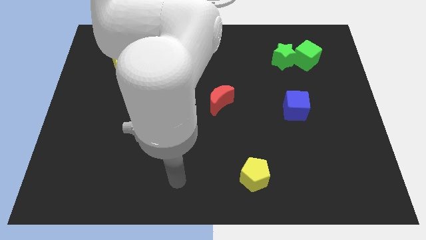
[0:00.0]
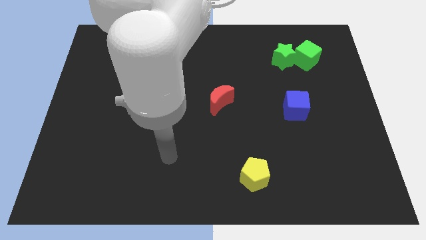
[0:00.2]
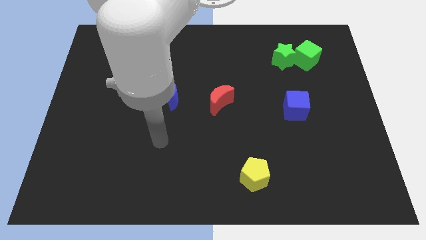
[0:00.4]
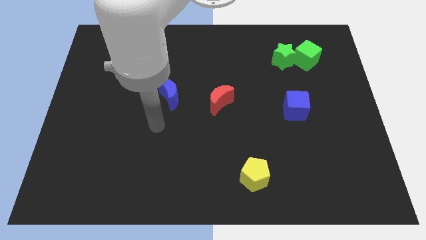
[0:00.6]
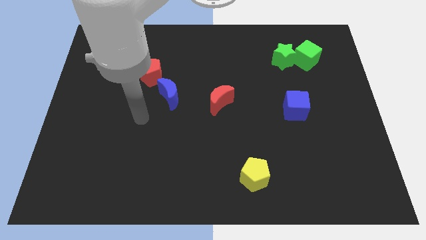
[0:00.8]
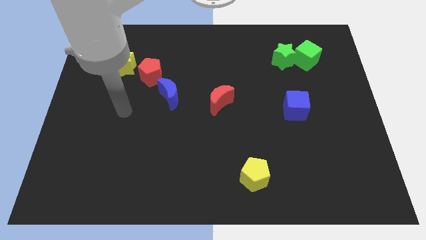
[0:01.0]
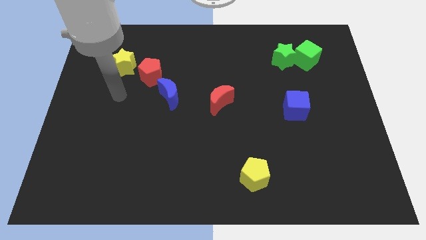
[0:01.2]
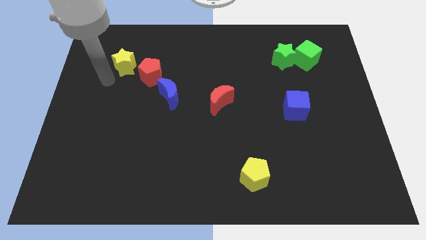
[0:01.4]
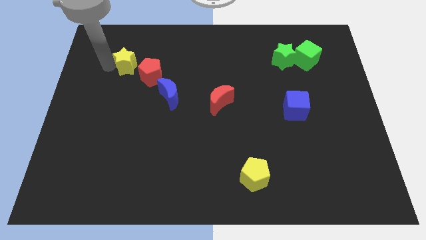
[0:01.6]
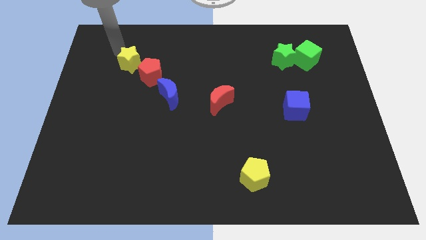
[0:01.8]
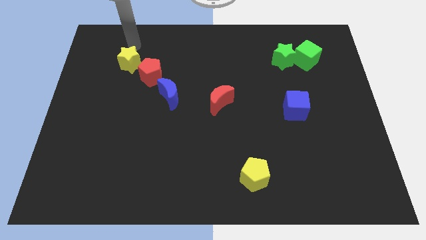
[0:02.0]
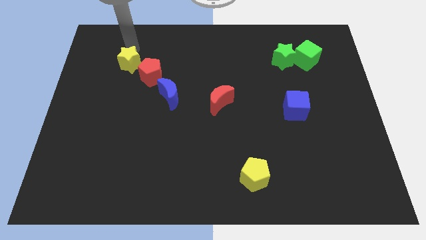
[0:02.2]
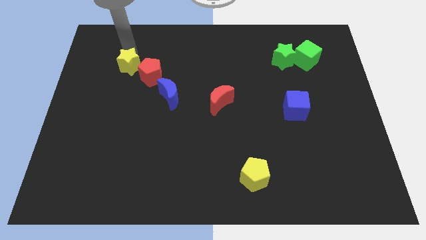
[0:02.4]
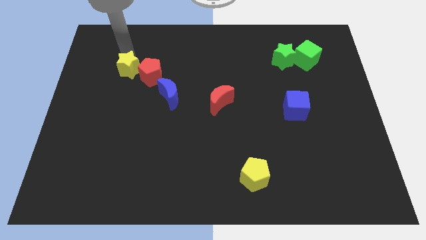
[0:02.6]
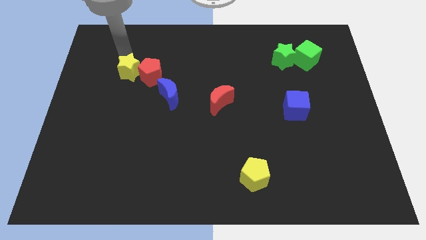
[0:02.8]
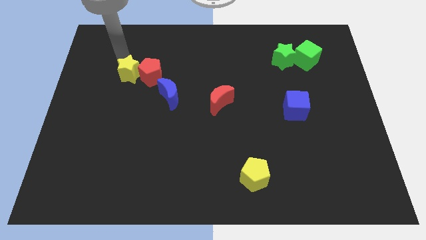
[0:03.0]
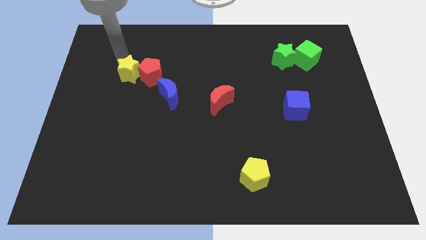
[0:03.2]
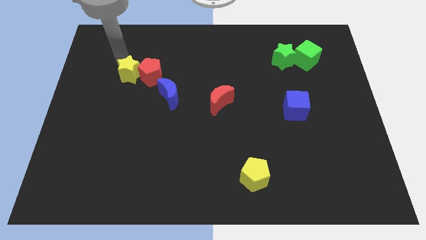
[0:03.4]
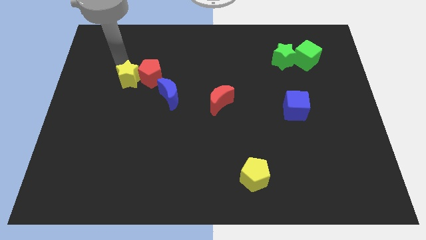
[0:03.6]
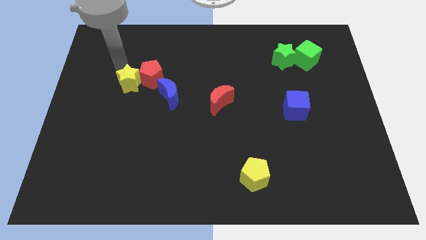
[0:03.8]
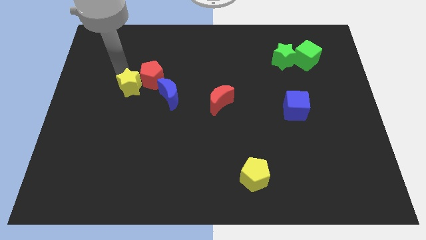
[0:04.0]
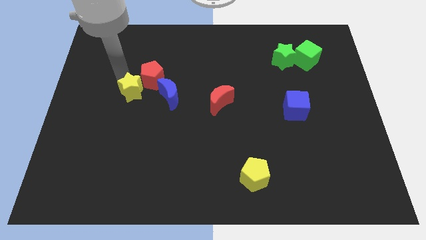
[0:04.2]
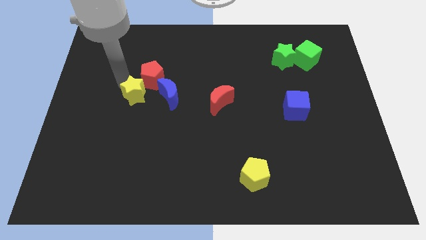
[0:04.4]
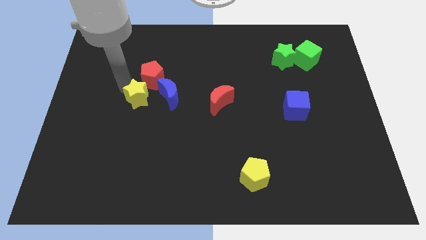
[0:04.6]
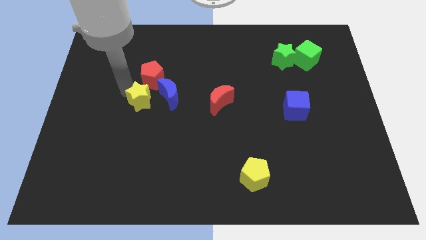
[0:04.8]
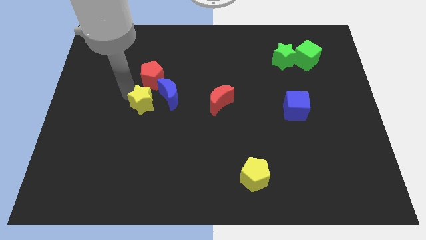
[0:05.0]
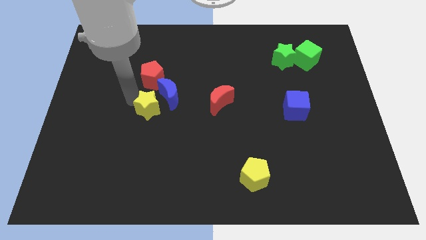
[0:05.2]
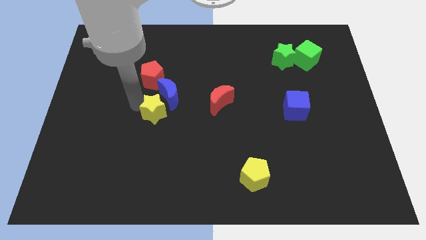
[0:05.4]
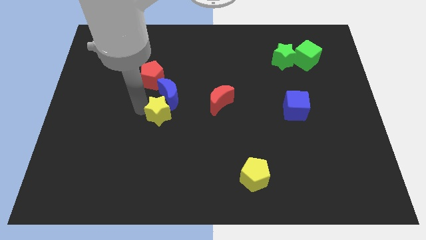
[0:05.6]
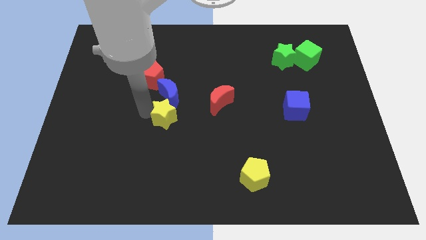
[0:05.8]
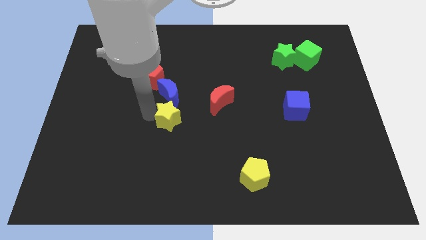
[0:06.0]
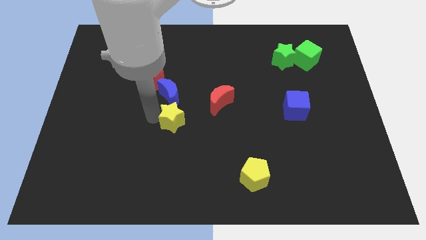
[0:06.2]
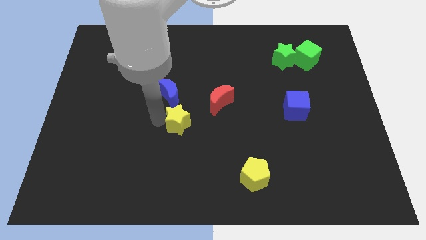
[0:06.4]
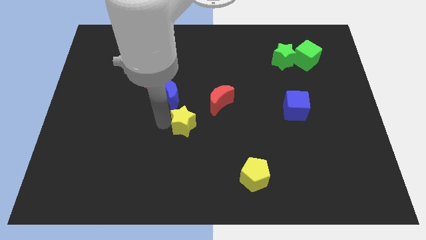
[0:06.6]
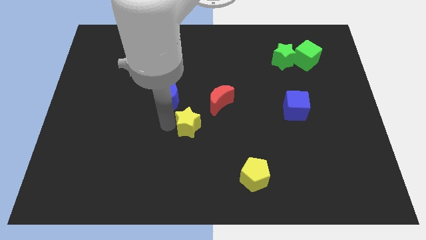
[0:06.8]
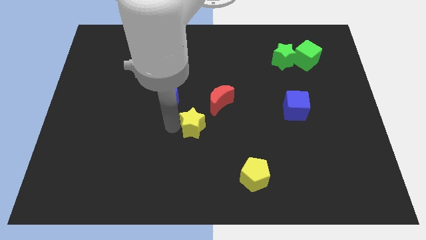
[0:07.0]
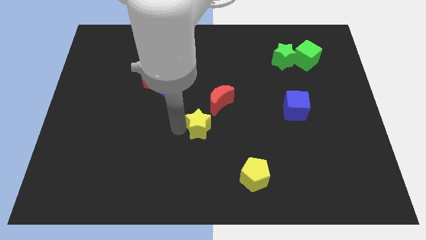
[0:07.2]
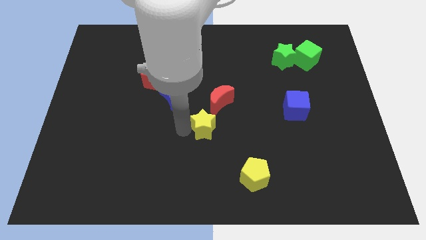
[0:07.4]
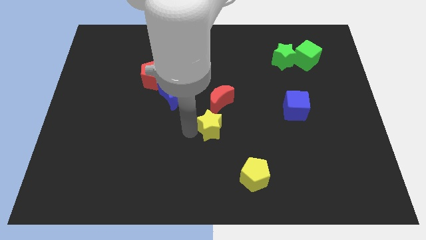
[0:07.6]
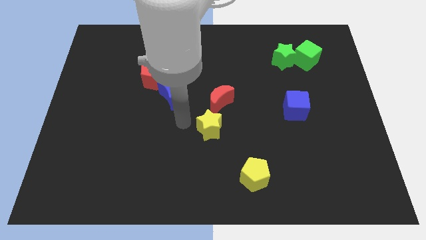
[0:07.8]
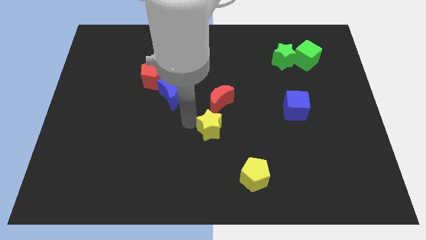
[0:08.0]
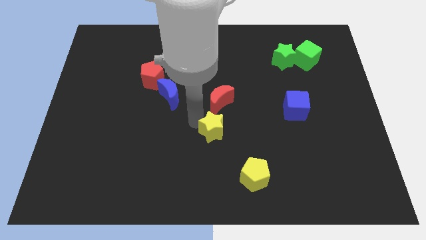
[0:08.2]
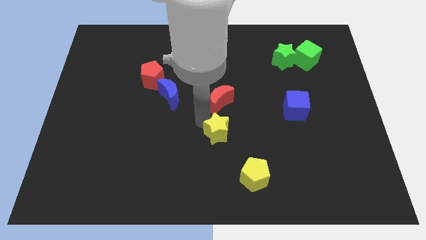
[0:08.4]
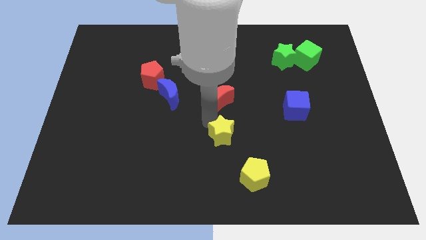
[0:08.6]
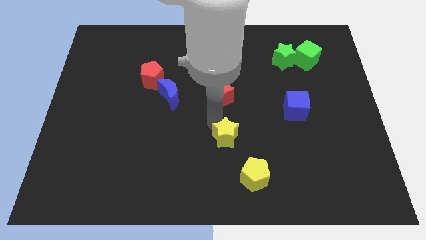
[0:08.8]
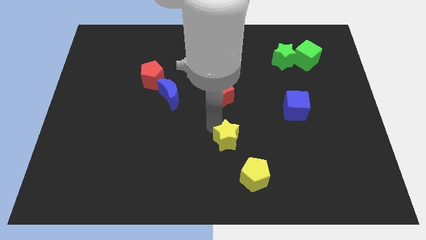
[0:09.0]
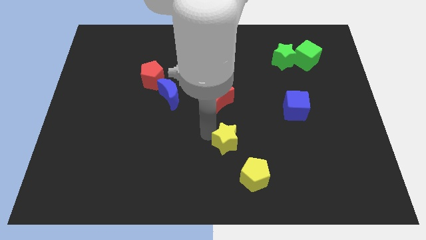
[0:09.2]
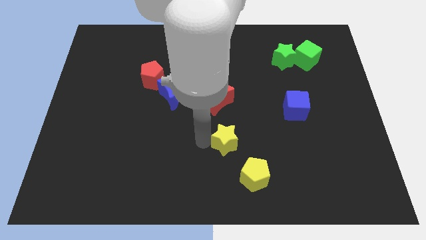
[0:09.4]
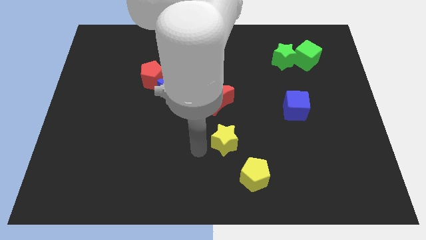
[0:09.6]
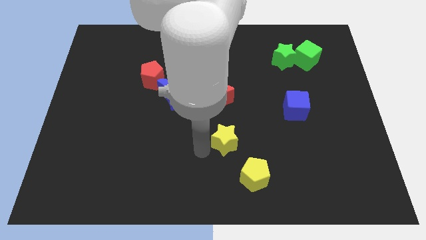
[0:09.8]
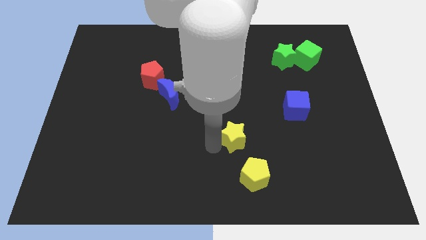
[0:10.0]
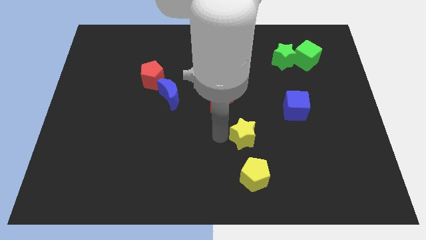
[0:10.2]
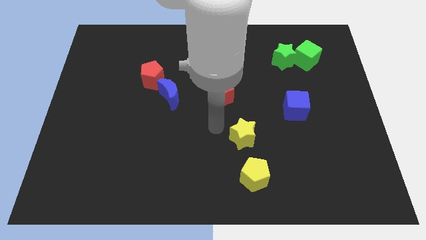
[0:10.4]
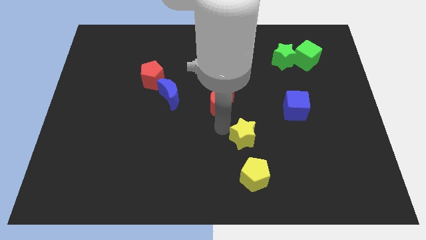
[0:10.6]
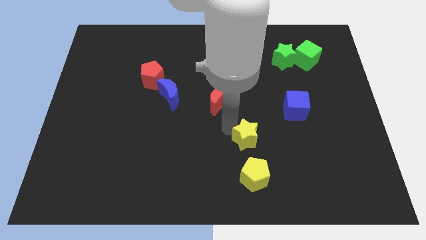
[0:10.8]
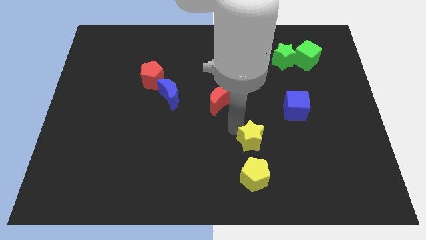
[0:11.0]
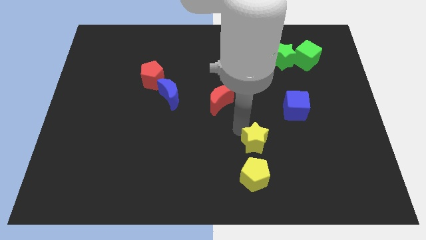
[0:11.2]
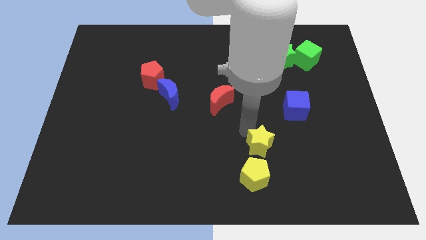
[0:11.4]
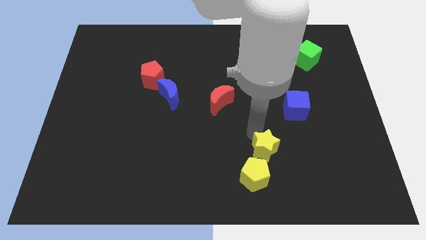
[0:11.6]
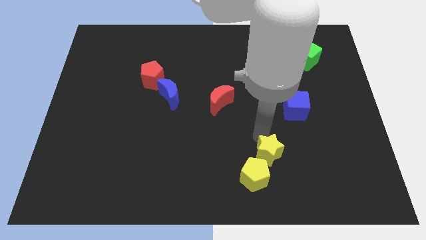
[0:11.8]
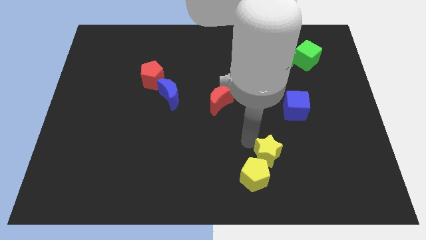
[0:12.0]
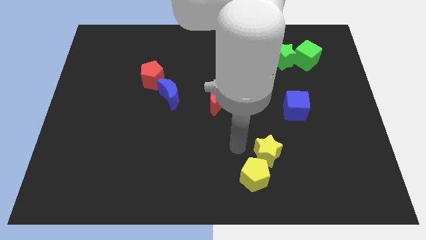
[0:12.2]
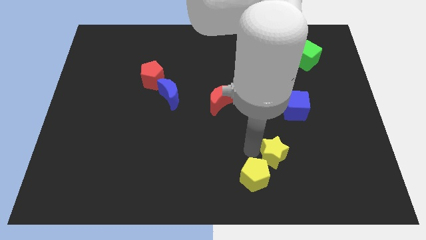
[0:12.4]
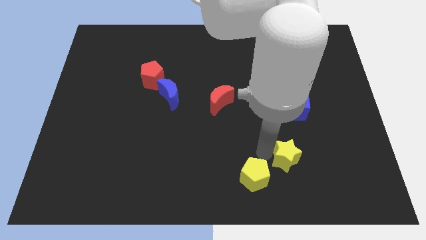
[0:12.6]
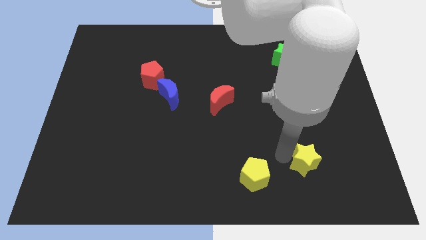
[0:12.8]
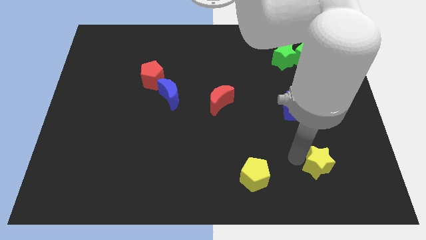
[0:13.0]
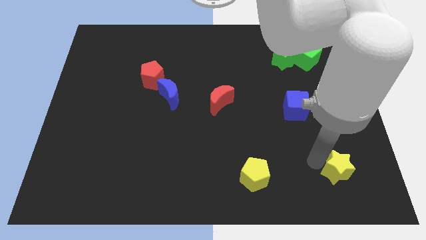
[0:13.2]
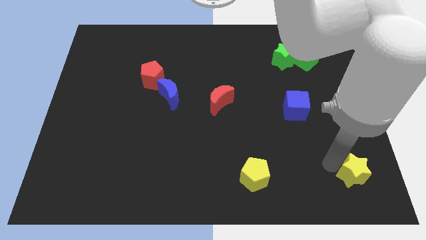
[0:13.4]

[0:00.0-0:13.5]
push the yellow star to the bottom right corner
